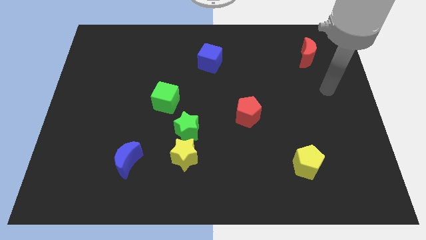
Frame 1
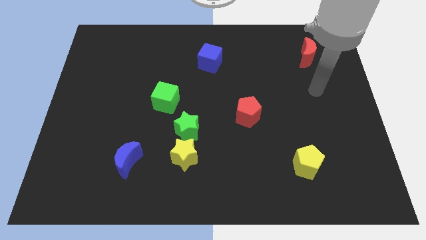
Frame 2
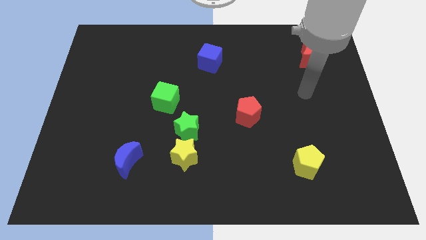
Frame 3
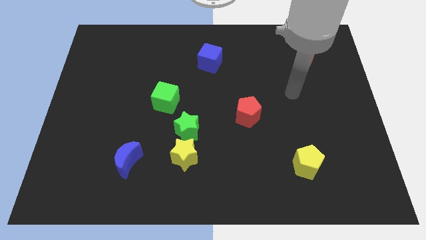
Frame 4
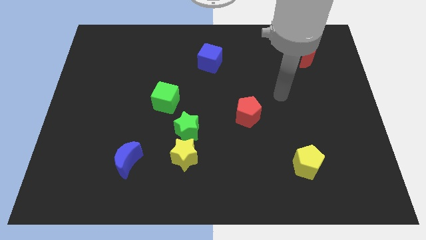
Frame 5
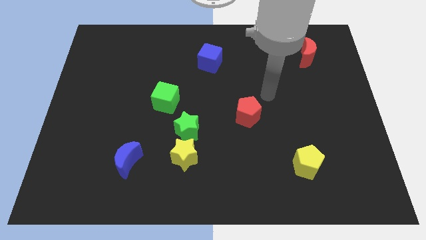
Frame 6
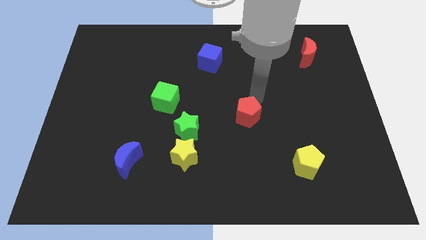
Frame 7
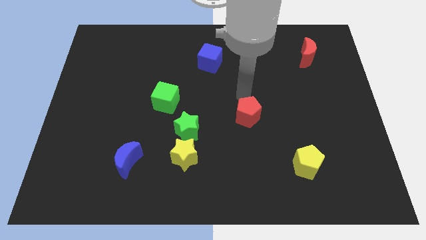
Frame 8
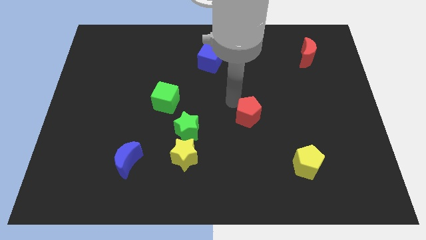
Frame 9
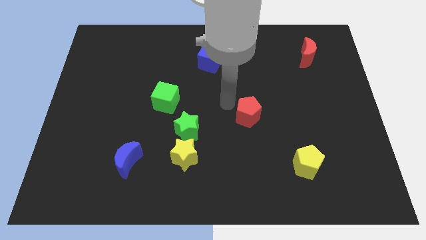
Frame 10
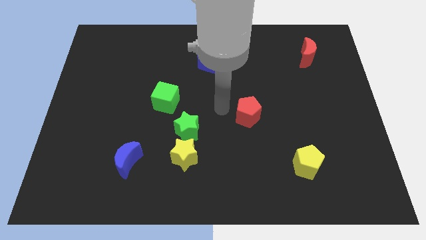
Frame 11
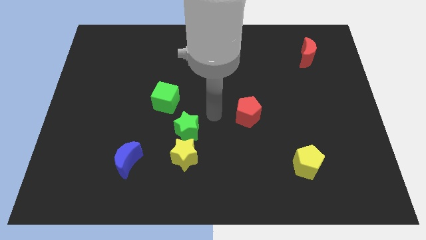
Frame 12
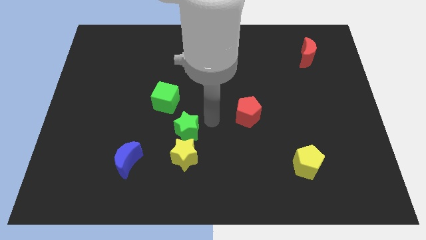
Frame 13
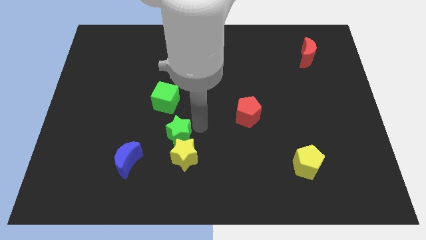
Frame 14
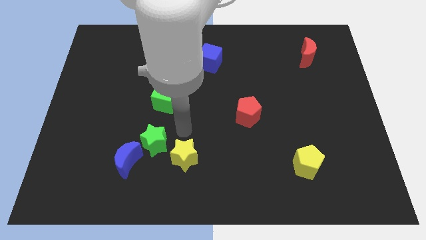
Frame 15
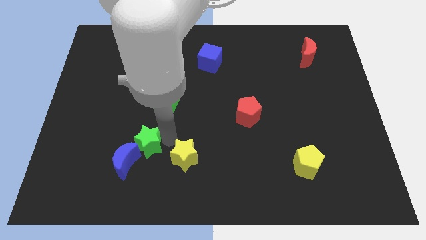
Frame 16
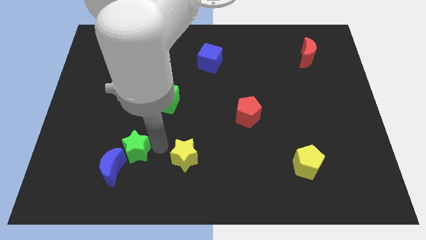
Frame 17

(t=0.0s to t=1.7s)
separate the yellow star from the green star

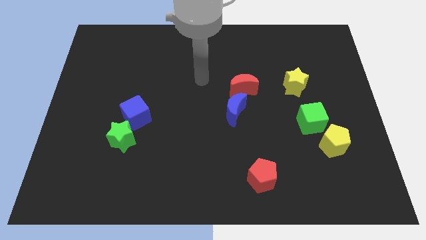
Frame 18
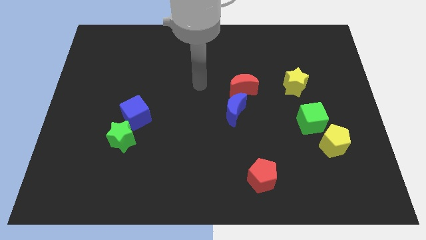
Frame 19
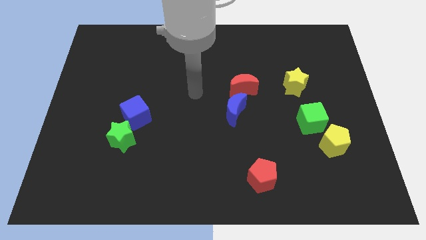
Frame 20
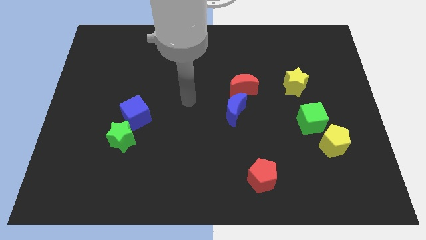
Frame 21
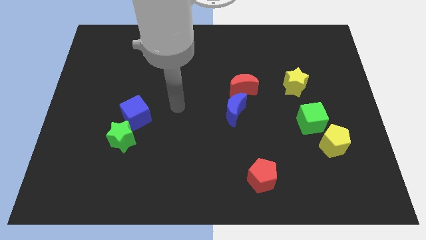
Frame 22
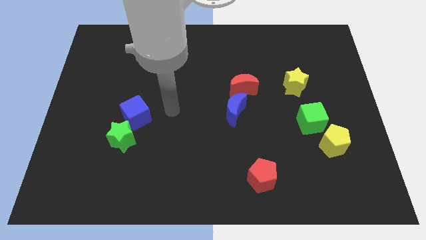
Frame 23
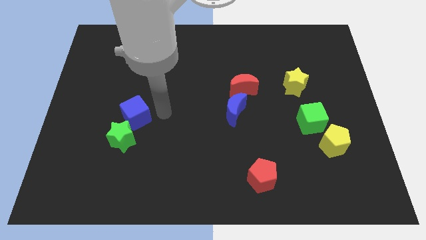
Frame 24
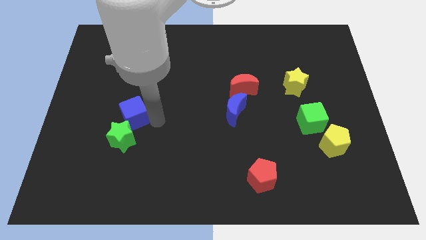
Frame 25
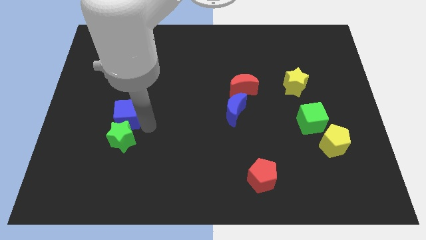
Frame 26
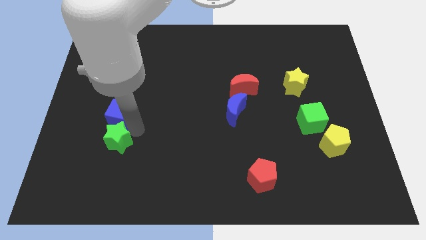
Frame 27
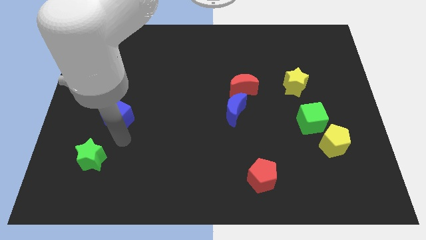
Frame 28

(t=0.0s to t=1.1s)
move the blue cube away from the green star

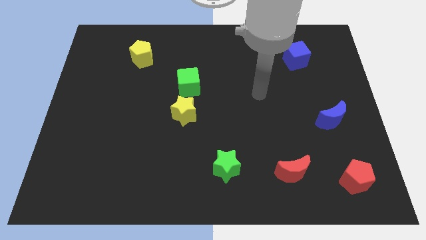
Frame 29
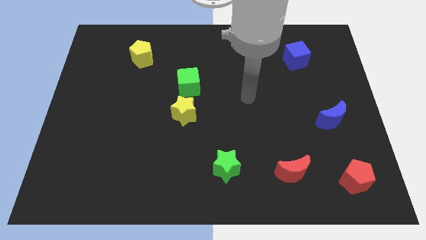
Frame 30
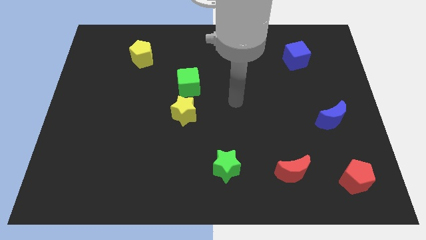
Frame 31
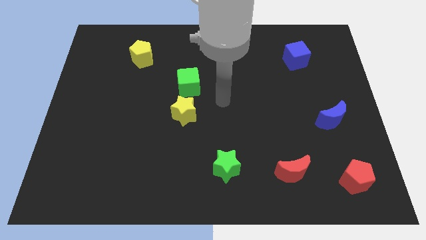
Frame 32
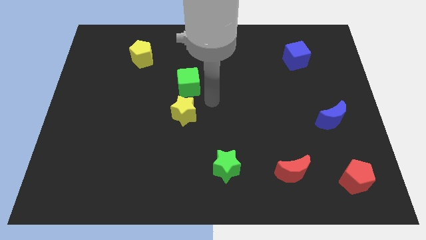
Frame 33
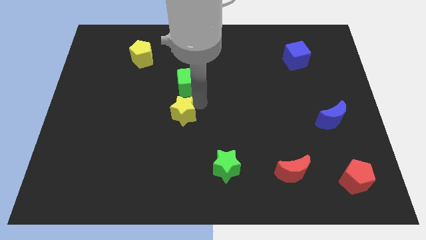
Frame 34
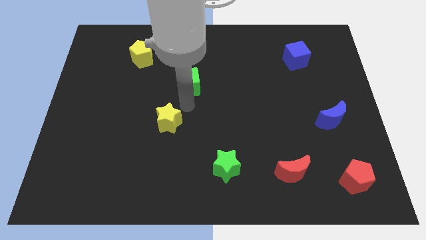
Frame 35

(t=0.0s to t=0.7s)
move the green cube away from the yellow star

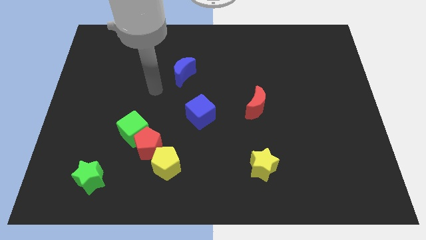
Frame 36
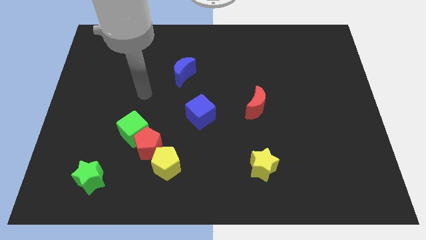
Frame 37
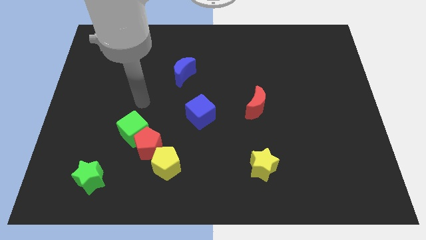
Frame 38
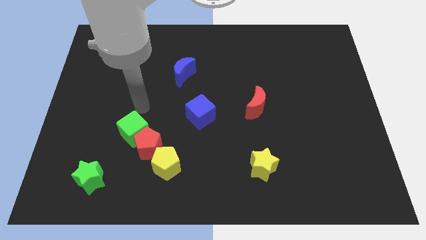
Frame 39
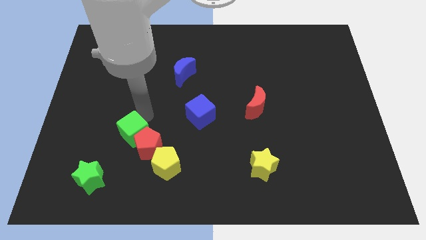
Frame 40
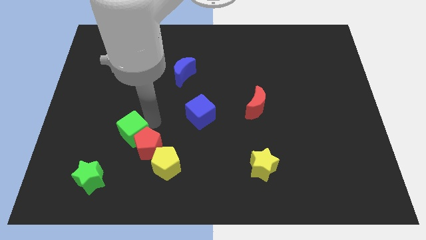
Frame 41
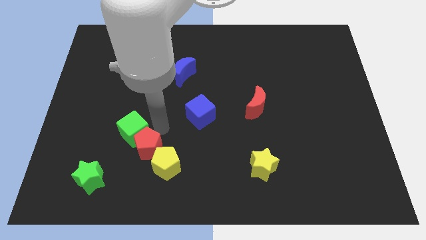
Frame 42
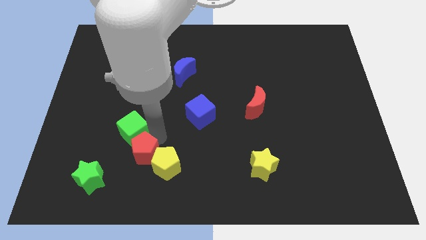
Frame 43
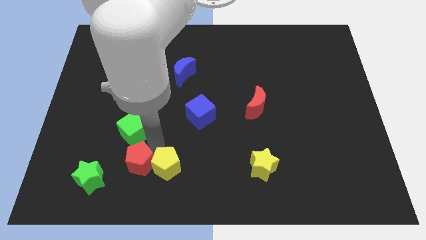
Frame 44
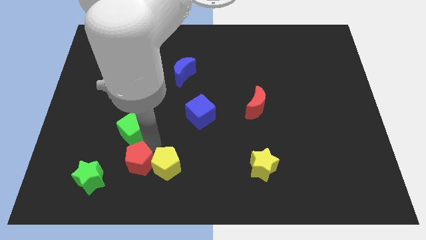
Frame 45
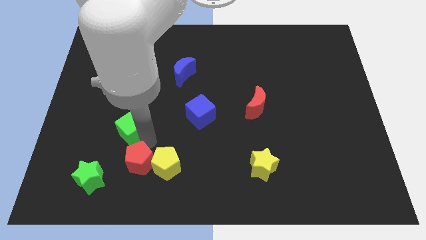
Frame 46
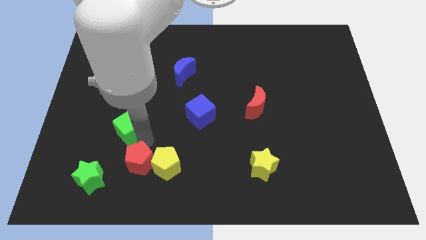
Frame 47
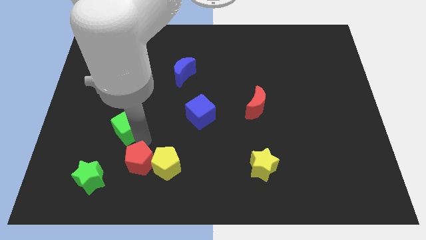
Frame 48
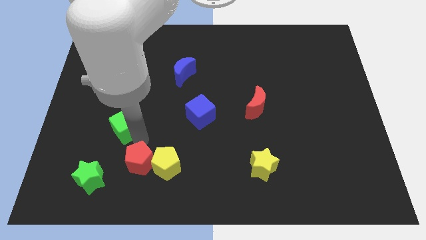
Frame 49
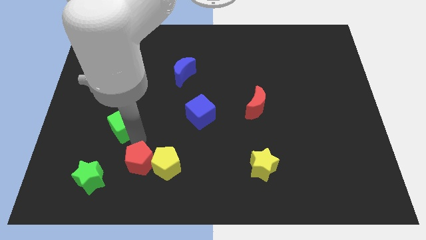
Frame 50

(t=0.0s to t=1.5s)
separate the green cube from the red pentagon

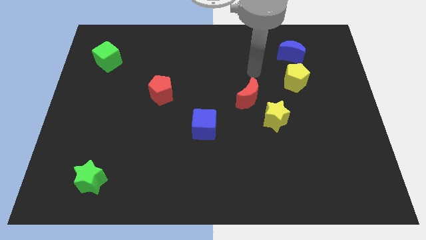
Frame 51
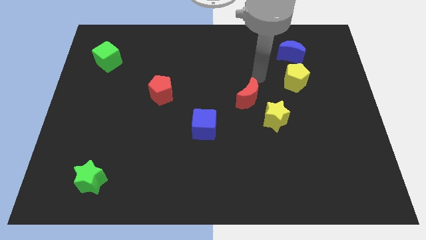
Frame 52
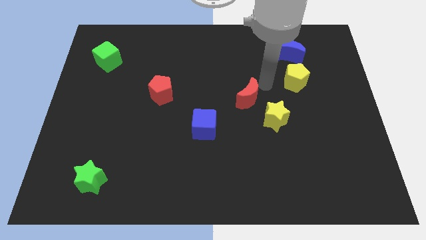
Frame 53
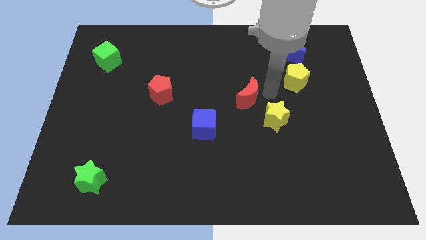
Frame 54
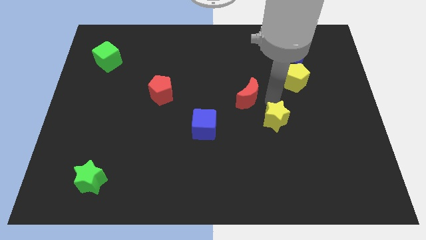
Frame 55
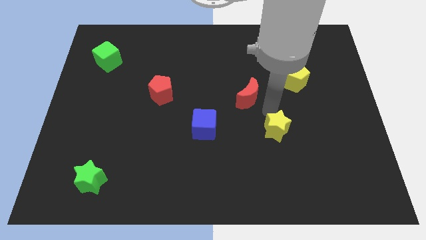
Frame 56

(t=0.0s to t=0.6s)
pull the red moon apart from the yellow star

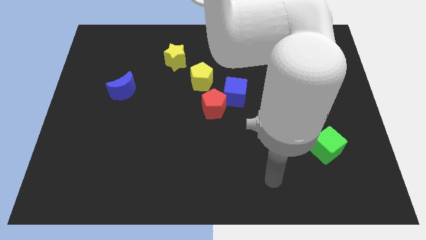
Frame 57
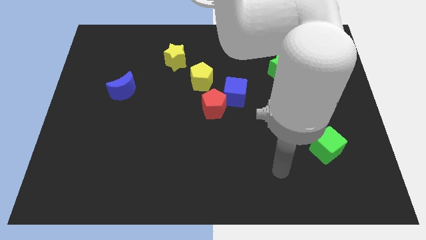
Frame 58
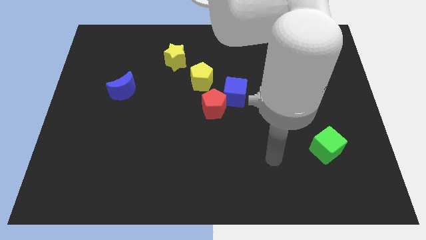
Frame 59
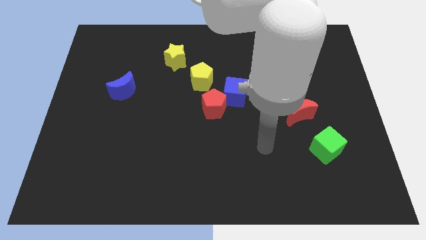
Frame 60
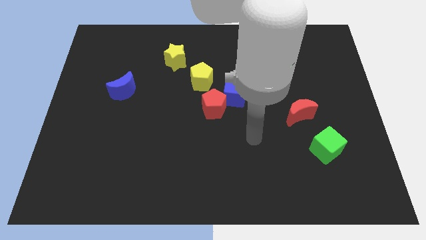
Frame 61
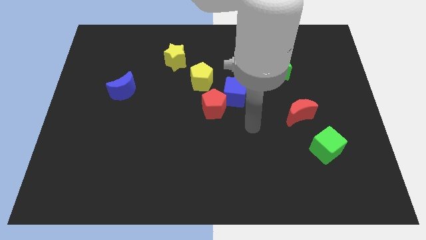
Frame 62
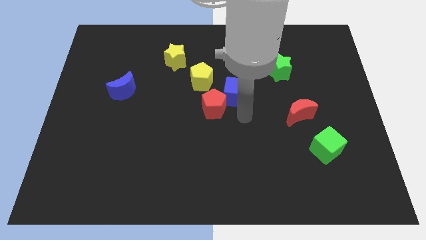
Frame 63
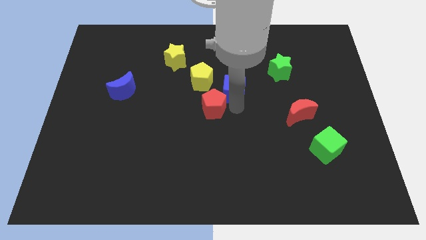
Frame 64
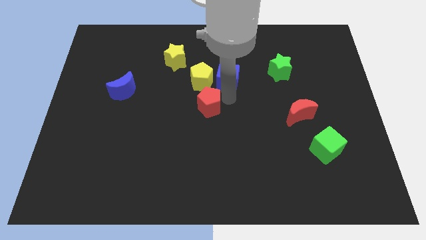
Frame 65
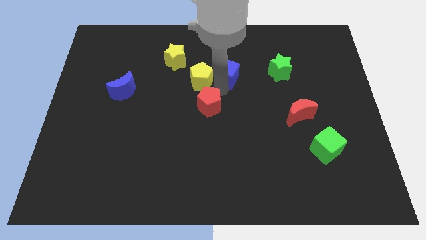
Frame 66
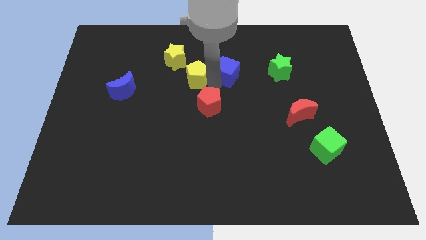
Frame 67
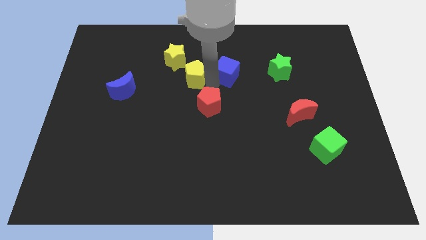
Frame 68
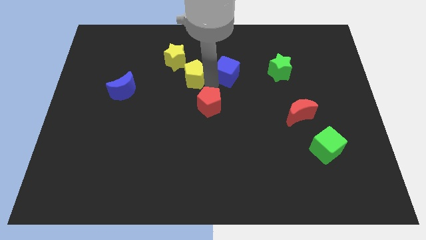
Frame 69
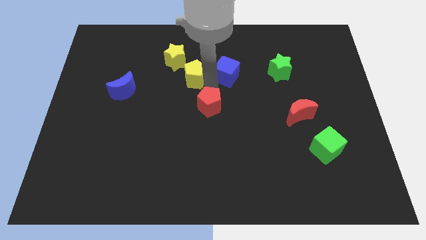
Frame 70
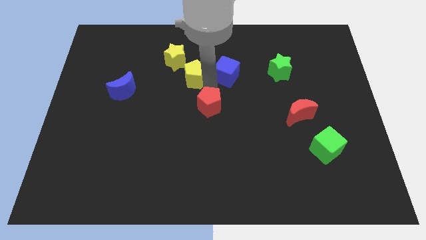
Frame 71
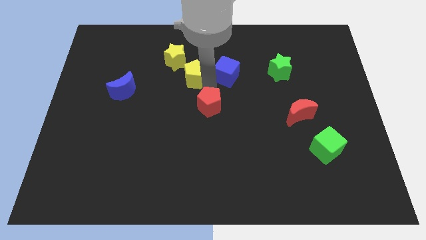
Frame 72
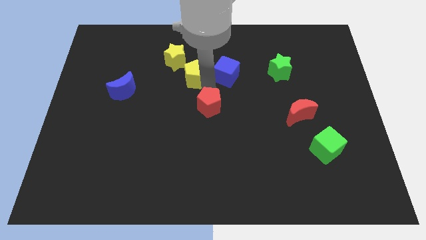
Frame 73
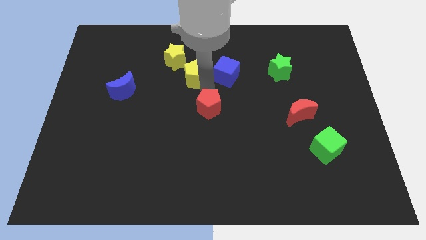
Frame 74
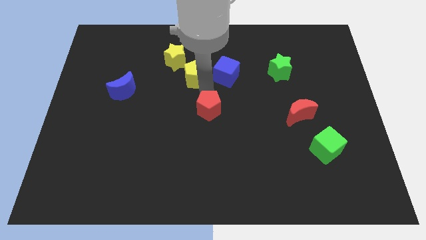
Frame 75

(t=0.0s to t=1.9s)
separate the red pentagon from the blue cube and yellow pentagon

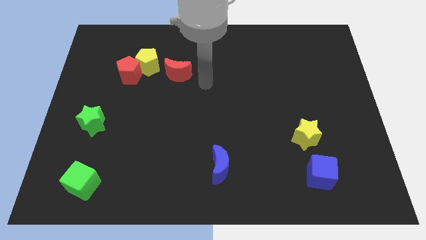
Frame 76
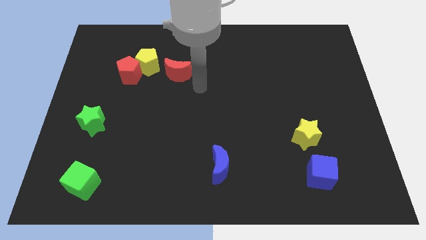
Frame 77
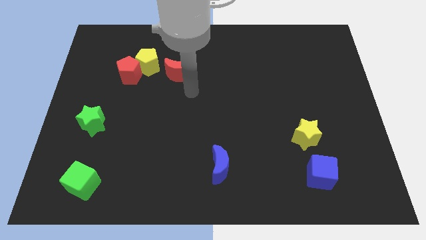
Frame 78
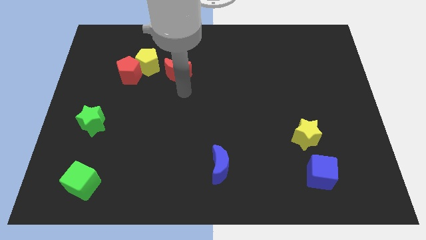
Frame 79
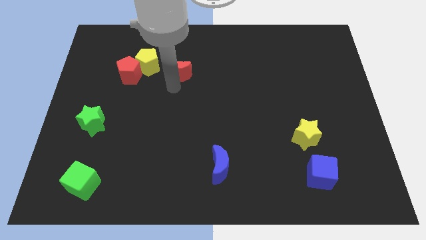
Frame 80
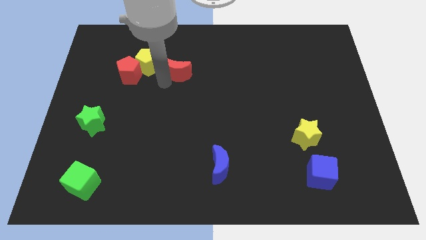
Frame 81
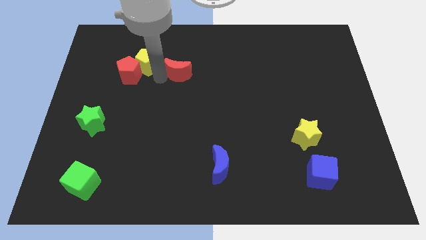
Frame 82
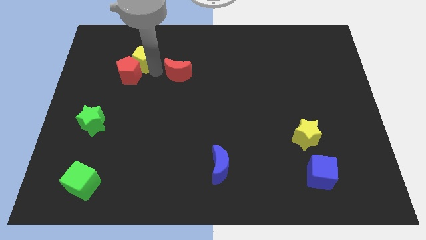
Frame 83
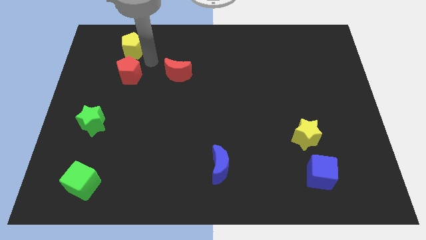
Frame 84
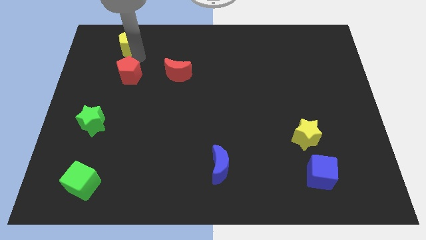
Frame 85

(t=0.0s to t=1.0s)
move the red pentagon away from the yellow pentagon

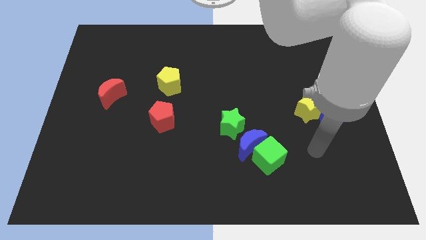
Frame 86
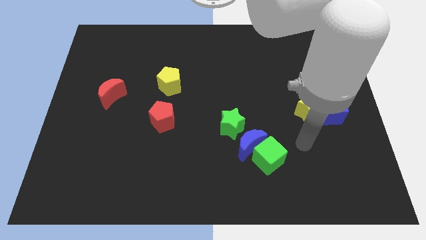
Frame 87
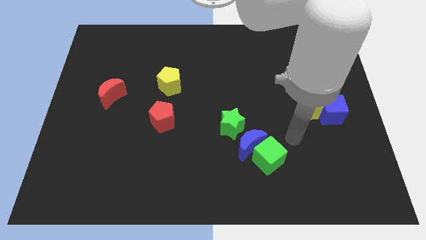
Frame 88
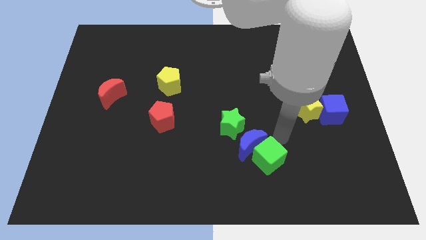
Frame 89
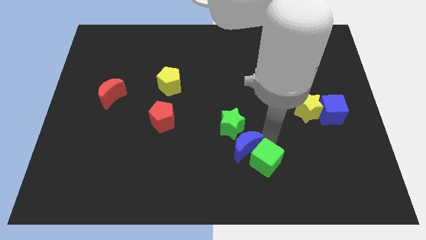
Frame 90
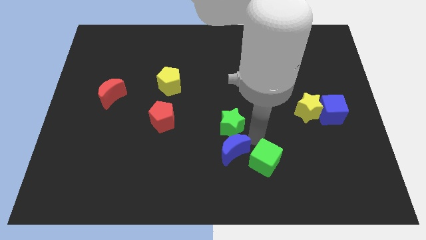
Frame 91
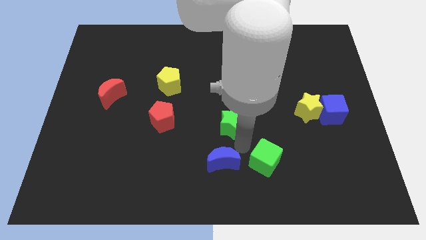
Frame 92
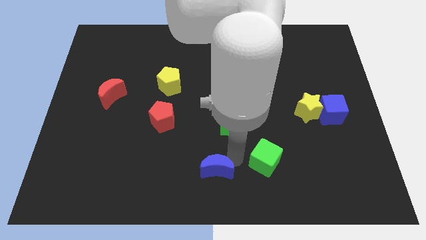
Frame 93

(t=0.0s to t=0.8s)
move the green cube away from the blue moon
